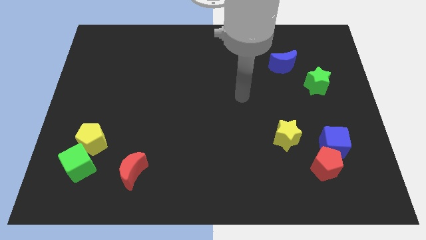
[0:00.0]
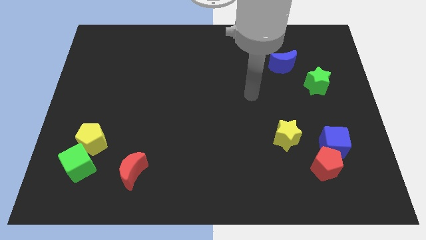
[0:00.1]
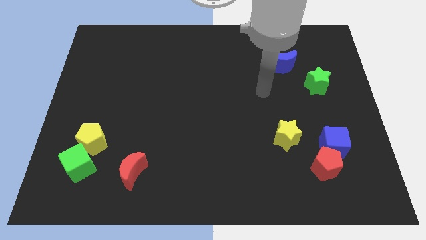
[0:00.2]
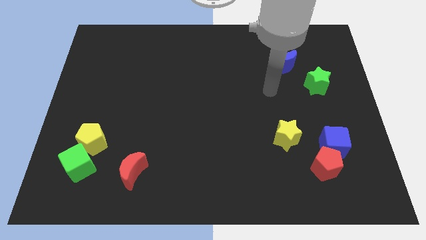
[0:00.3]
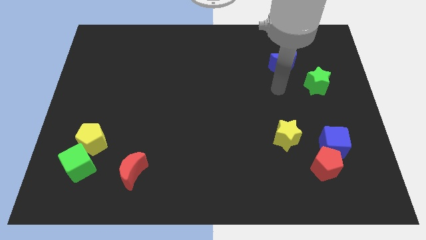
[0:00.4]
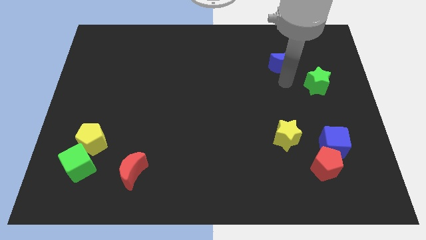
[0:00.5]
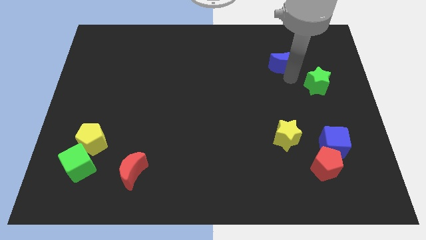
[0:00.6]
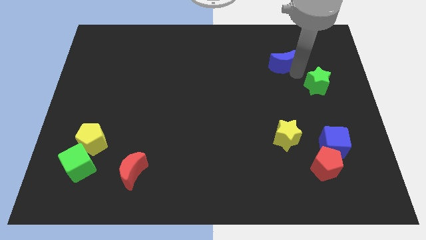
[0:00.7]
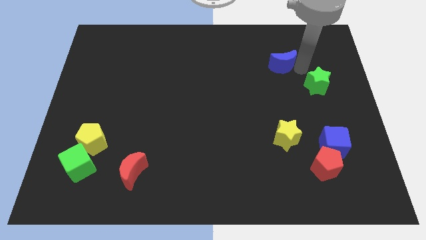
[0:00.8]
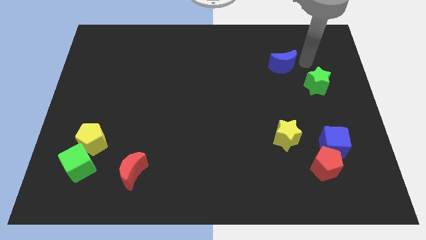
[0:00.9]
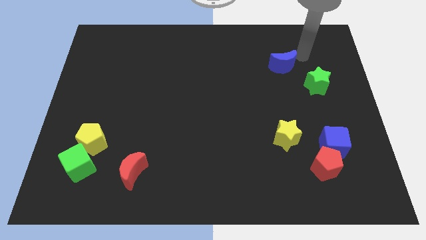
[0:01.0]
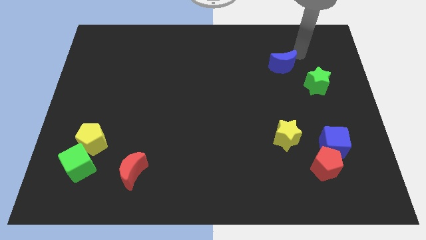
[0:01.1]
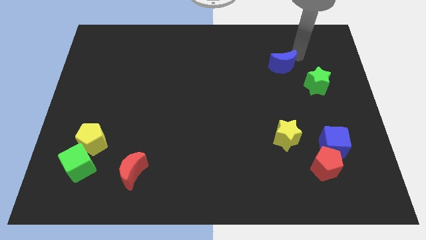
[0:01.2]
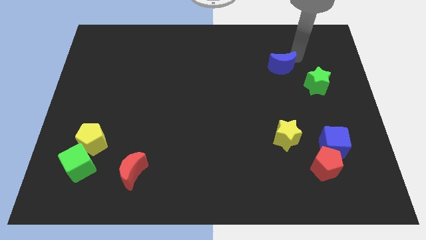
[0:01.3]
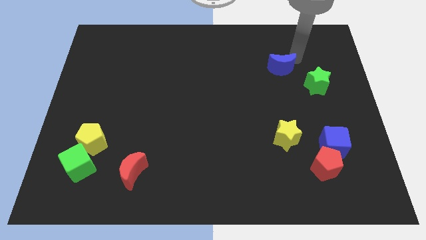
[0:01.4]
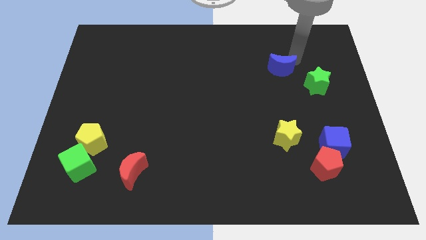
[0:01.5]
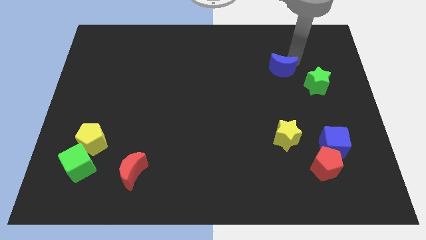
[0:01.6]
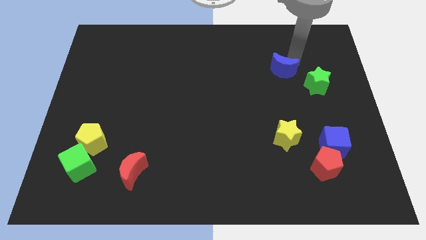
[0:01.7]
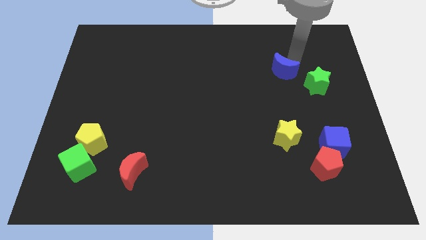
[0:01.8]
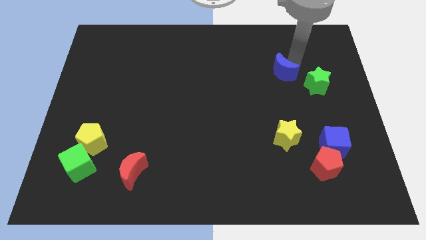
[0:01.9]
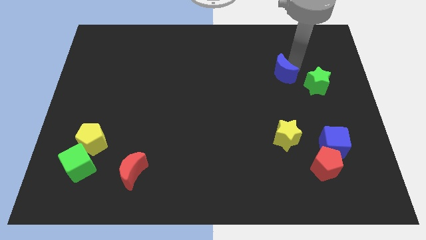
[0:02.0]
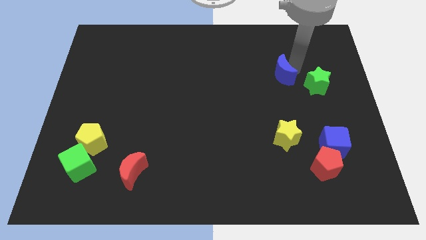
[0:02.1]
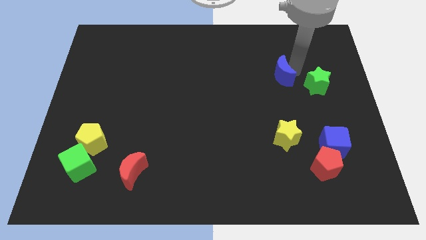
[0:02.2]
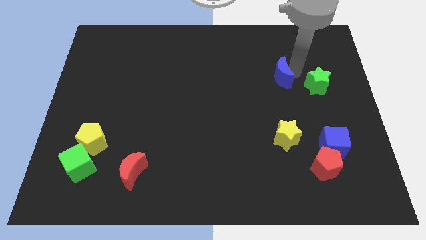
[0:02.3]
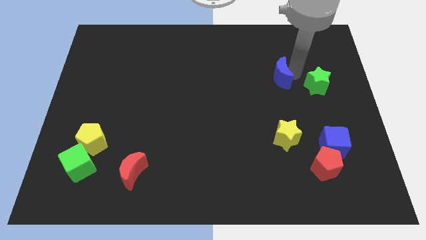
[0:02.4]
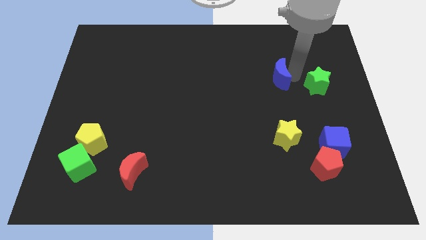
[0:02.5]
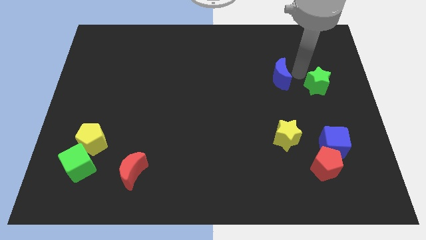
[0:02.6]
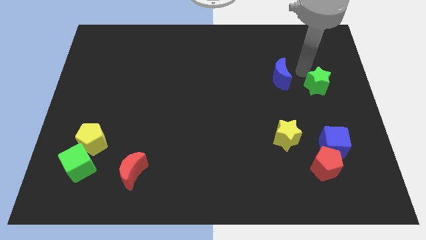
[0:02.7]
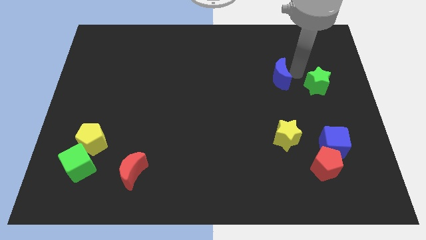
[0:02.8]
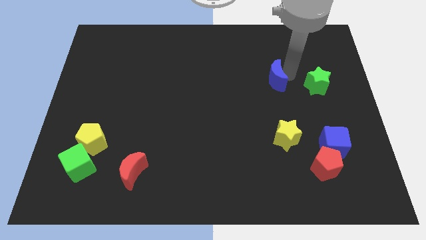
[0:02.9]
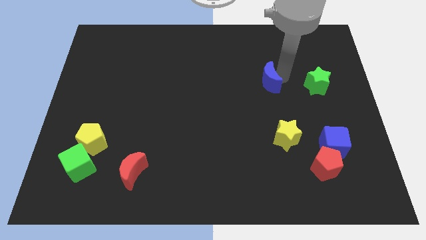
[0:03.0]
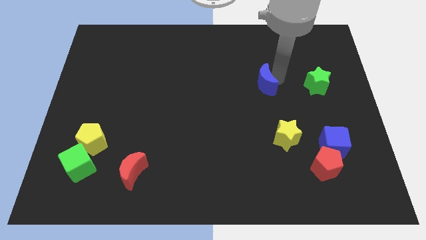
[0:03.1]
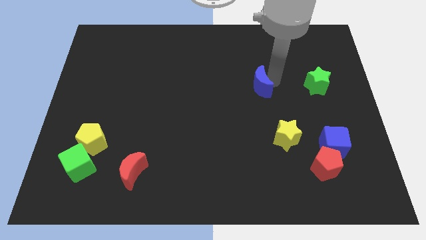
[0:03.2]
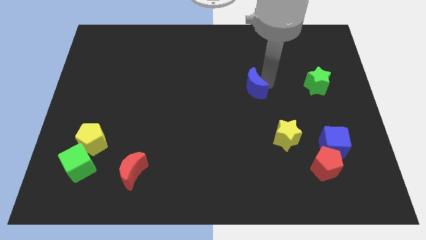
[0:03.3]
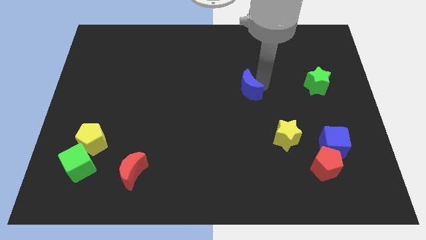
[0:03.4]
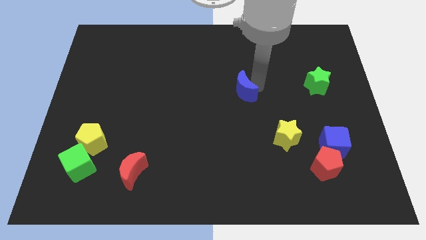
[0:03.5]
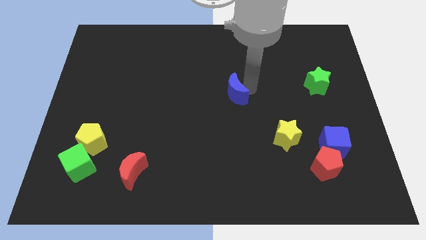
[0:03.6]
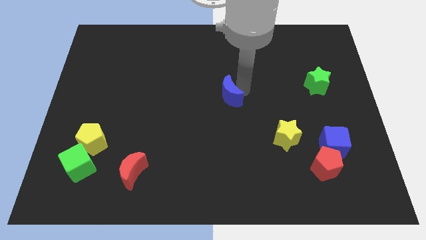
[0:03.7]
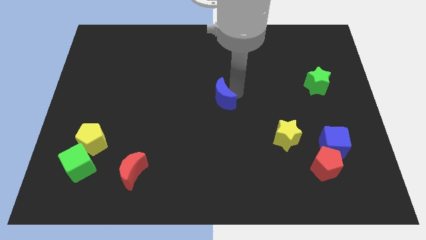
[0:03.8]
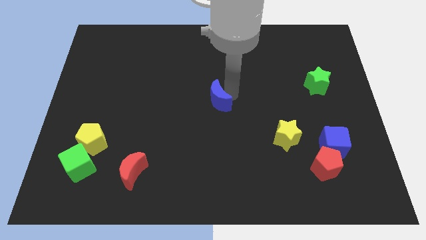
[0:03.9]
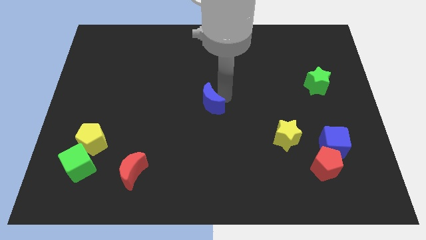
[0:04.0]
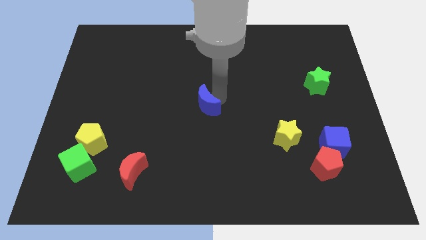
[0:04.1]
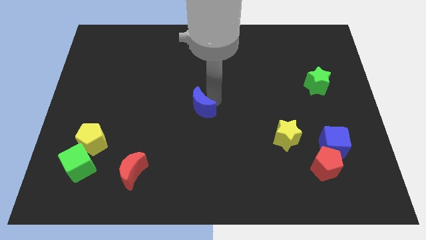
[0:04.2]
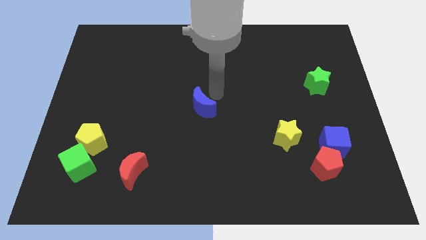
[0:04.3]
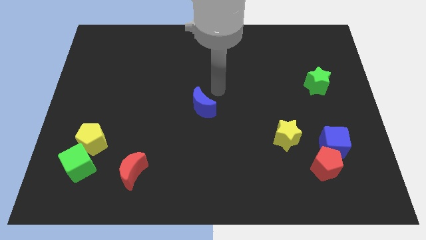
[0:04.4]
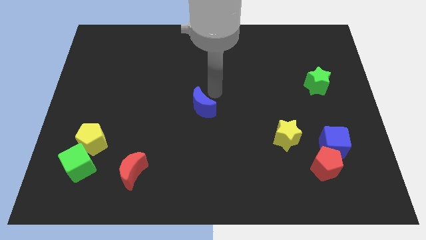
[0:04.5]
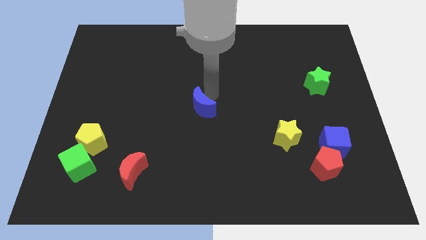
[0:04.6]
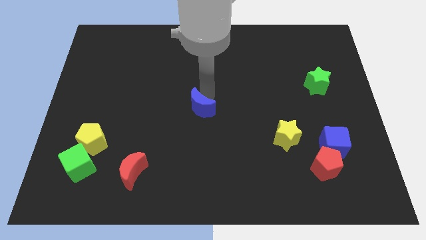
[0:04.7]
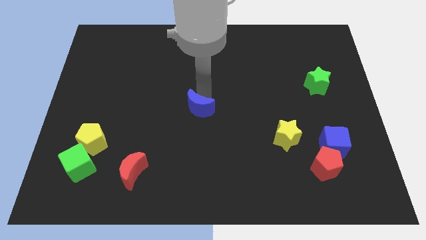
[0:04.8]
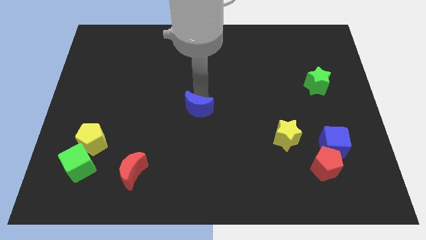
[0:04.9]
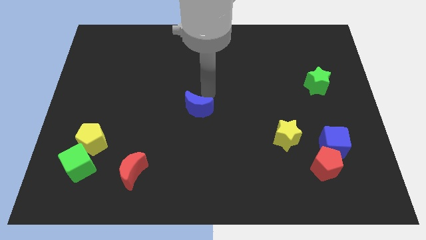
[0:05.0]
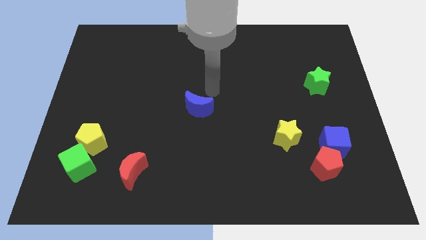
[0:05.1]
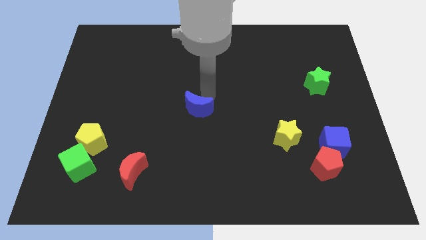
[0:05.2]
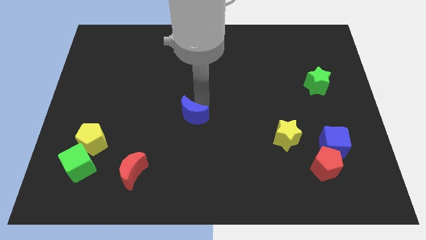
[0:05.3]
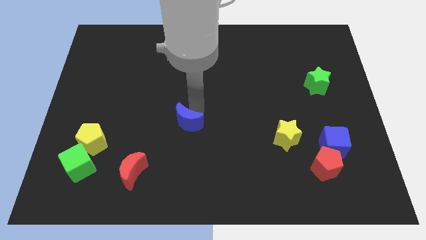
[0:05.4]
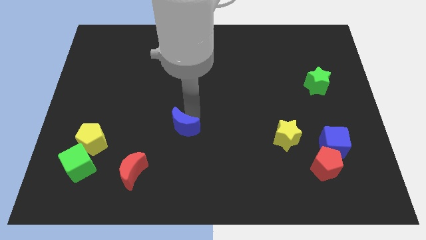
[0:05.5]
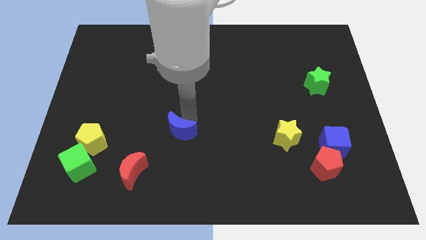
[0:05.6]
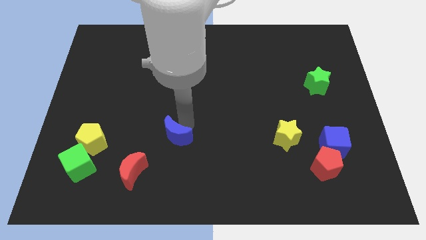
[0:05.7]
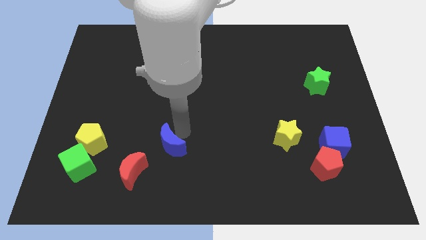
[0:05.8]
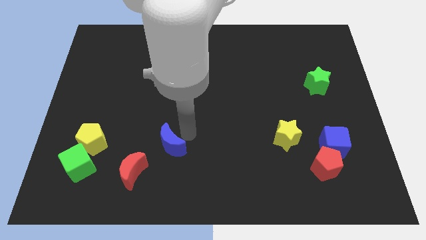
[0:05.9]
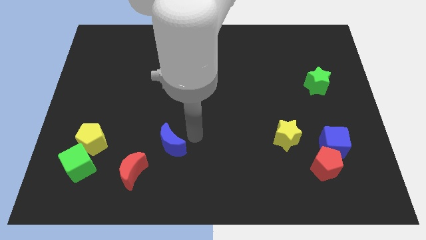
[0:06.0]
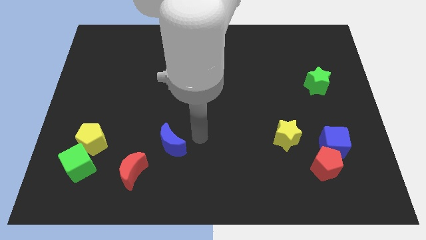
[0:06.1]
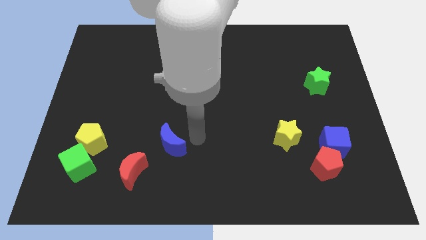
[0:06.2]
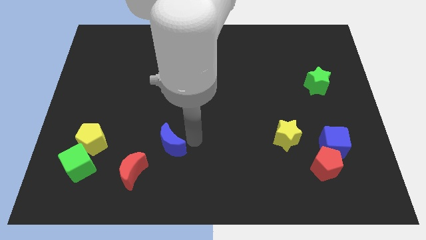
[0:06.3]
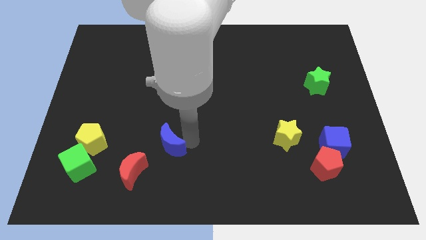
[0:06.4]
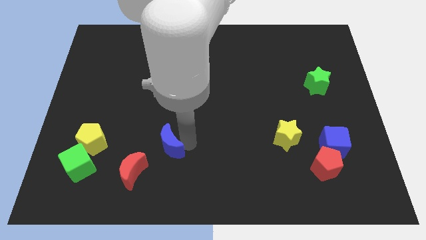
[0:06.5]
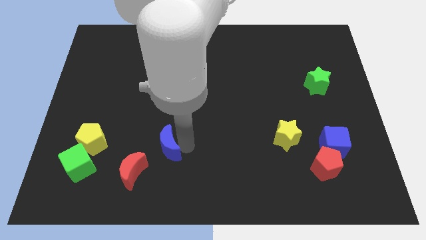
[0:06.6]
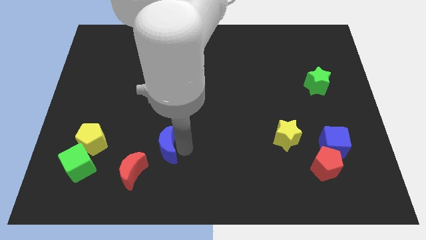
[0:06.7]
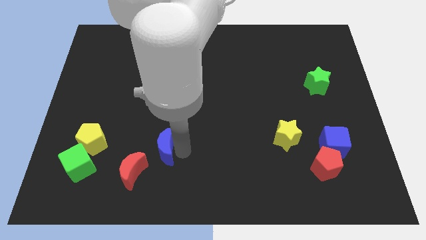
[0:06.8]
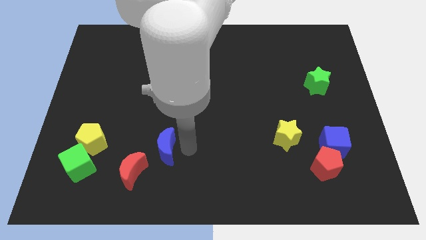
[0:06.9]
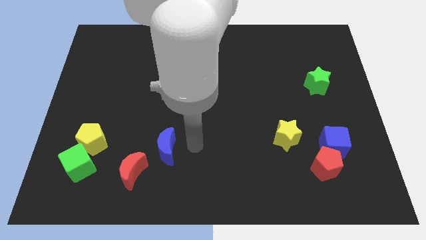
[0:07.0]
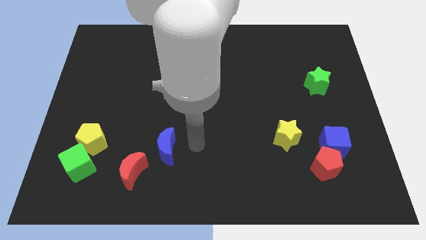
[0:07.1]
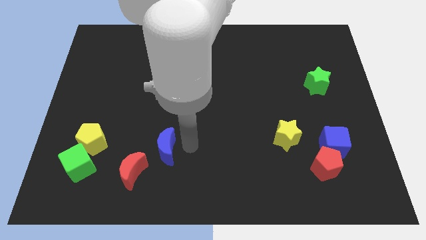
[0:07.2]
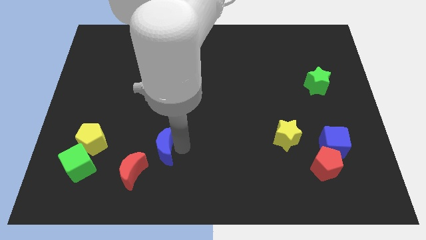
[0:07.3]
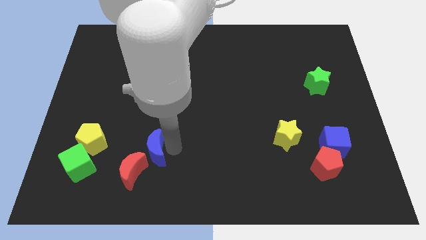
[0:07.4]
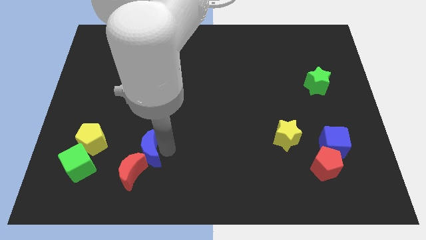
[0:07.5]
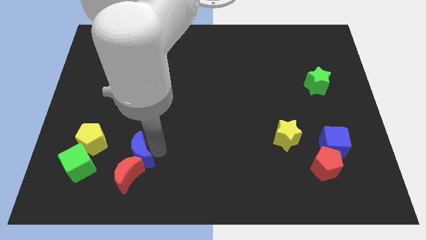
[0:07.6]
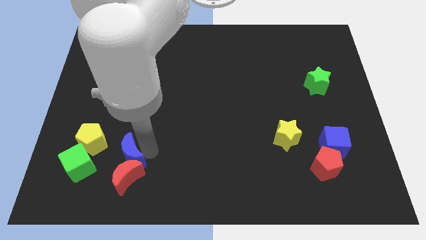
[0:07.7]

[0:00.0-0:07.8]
move the blue moon to the bottom right side of the yellow pentagon
